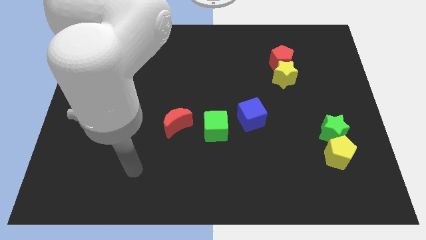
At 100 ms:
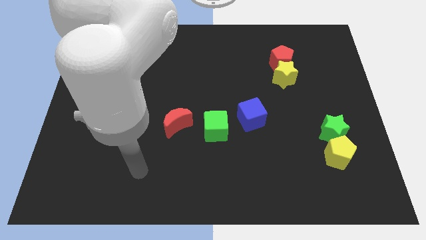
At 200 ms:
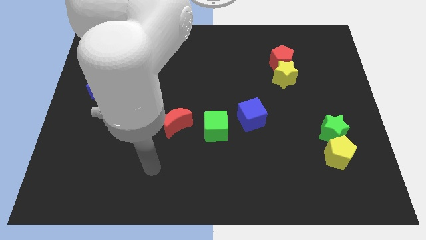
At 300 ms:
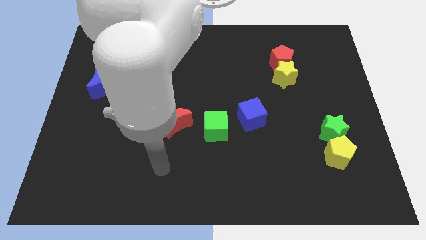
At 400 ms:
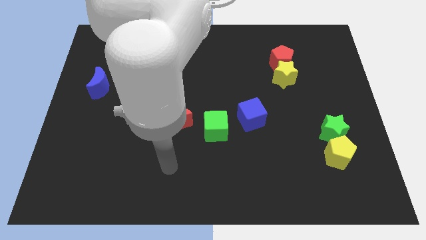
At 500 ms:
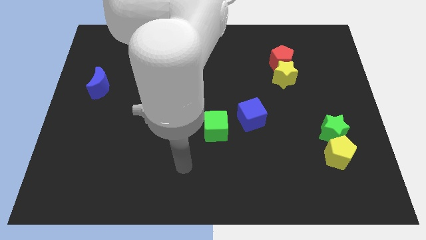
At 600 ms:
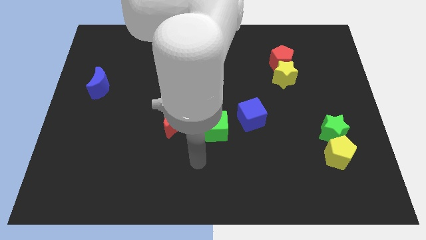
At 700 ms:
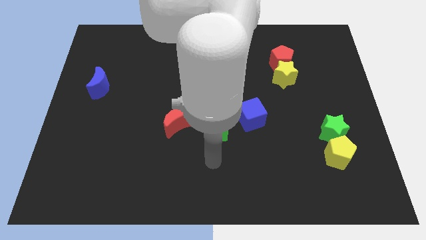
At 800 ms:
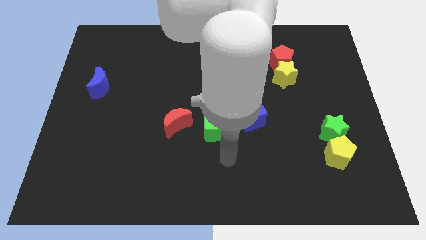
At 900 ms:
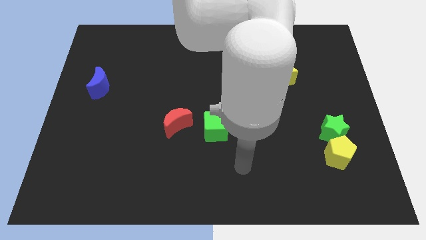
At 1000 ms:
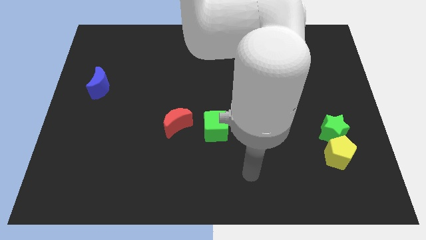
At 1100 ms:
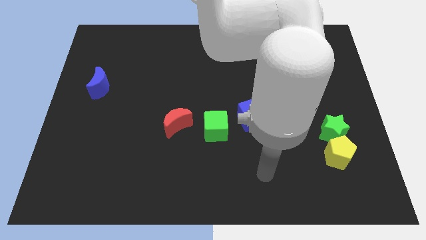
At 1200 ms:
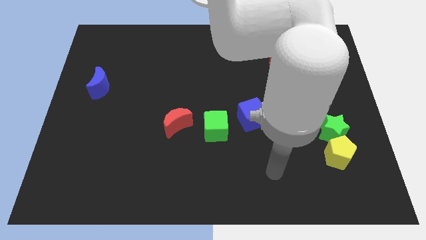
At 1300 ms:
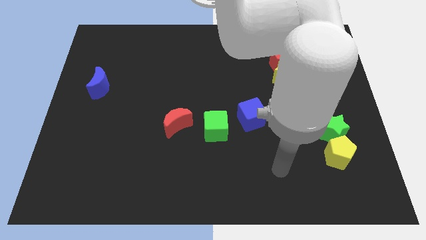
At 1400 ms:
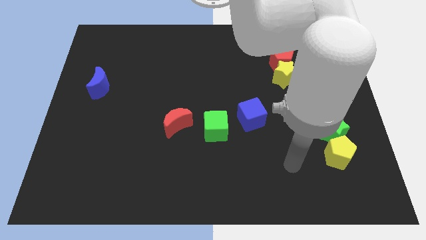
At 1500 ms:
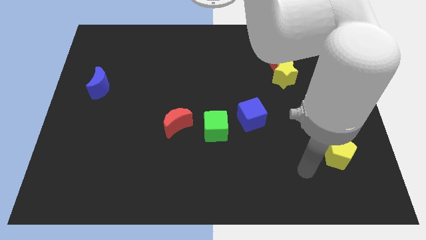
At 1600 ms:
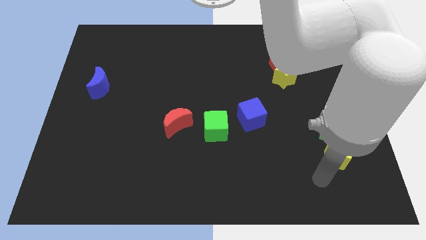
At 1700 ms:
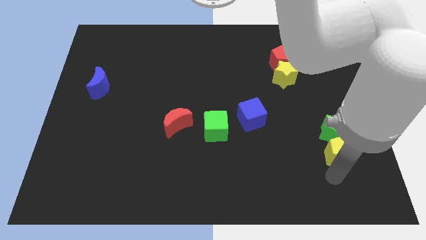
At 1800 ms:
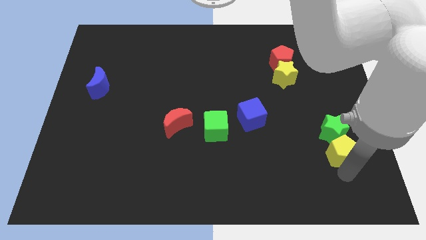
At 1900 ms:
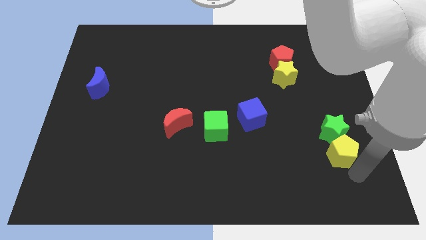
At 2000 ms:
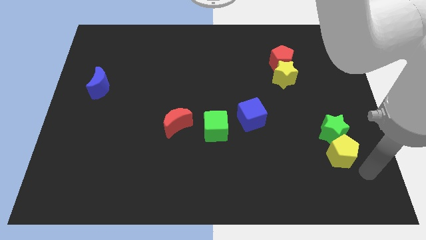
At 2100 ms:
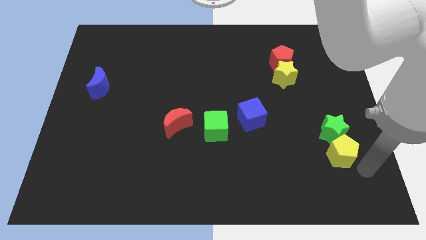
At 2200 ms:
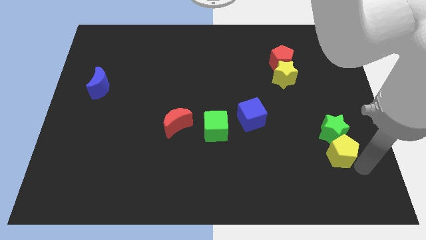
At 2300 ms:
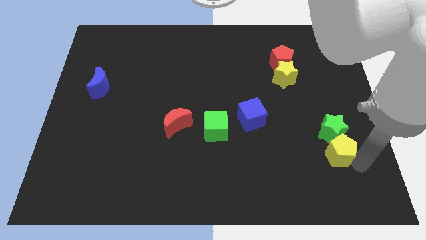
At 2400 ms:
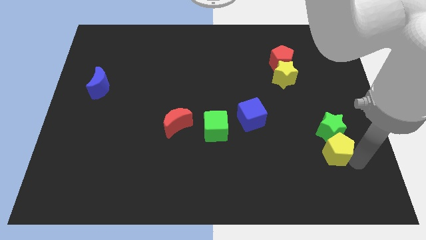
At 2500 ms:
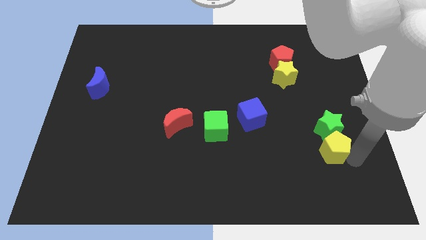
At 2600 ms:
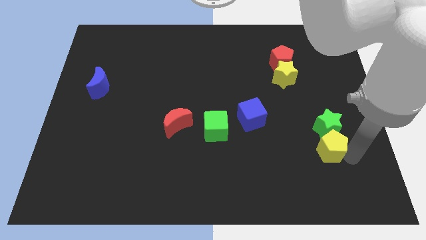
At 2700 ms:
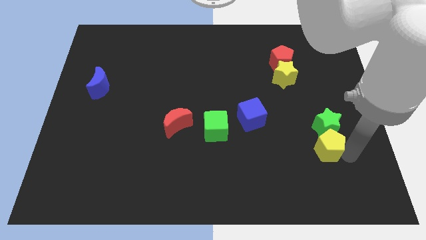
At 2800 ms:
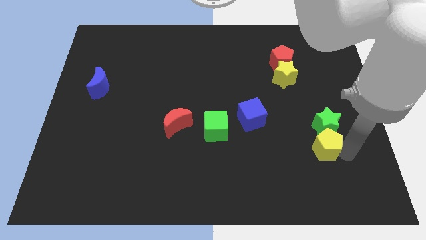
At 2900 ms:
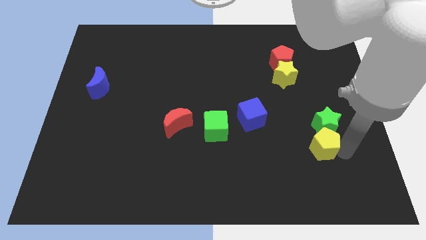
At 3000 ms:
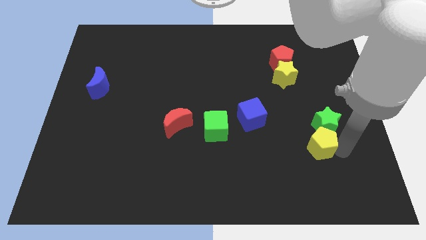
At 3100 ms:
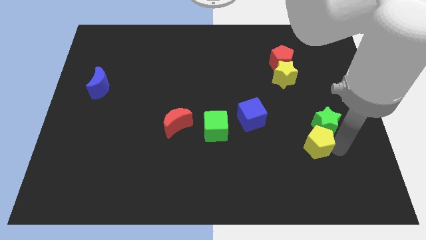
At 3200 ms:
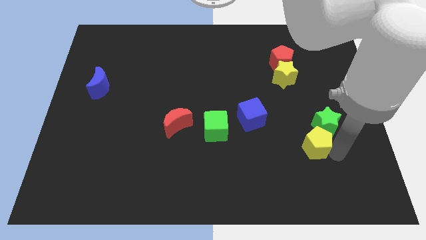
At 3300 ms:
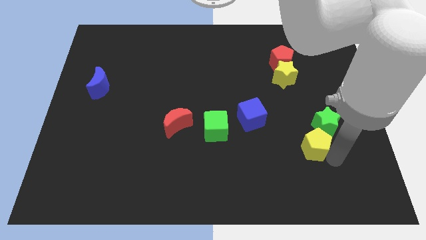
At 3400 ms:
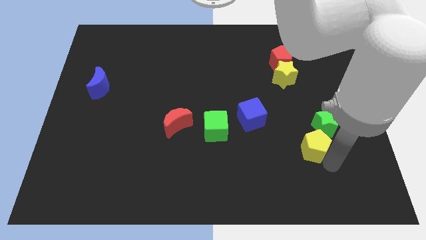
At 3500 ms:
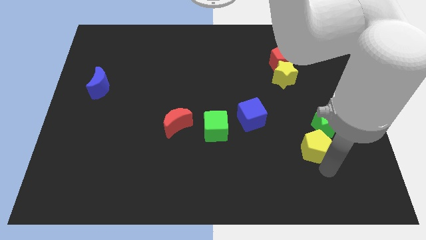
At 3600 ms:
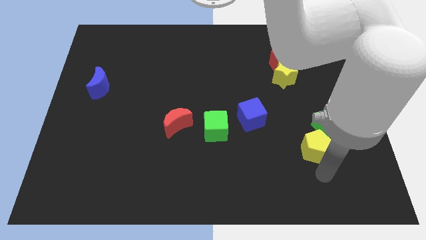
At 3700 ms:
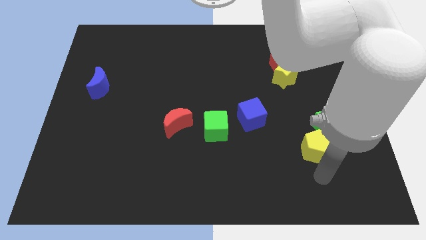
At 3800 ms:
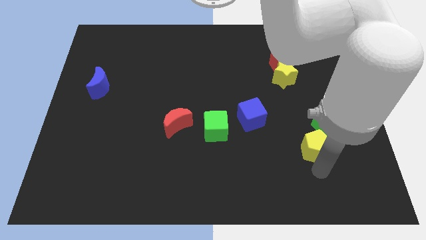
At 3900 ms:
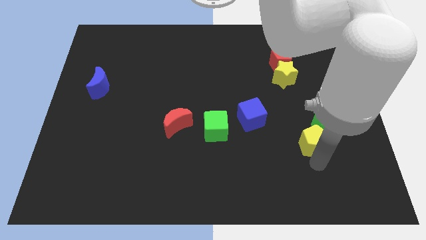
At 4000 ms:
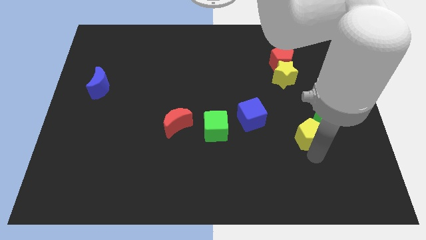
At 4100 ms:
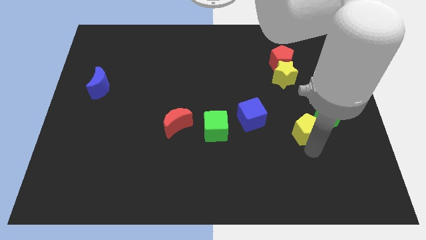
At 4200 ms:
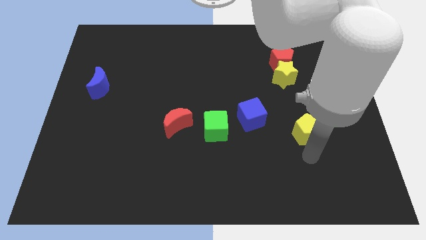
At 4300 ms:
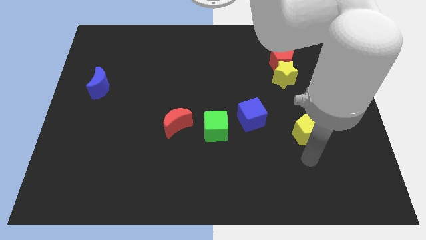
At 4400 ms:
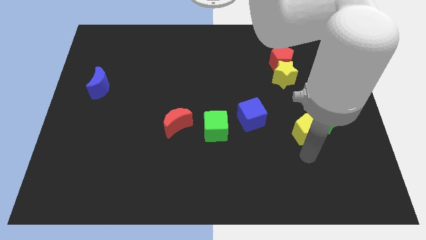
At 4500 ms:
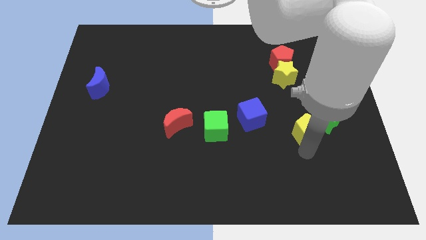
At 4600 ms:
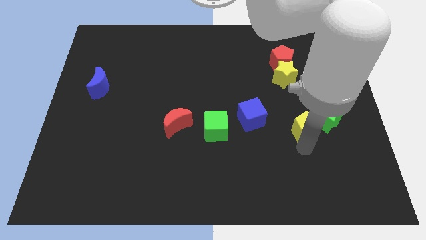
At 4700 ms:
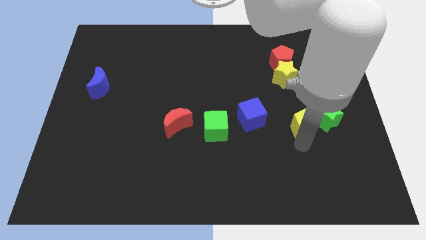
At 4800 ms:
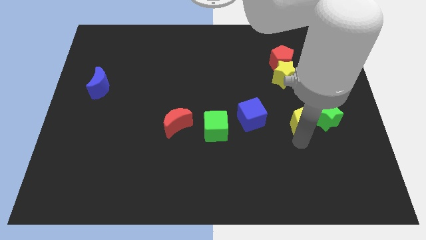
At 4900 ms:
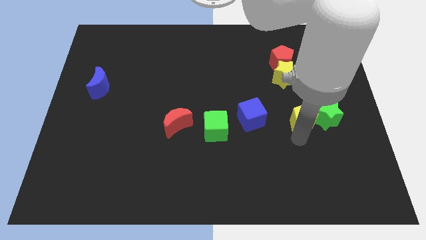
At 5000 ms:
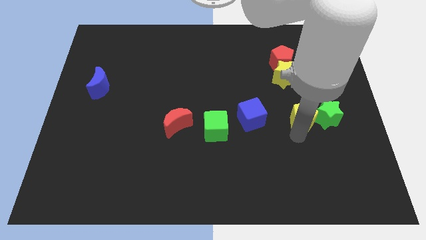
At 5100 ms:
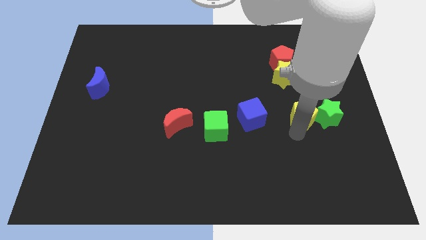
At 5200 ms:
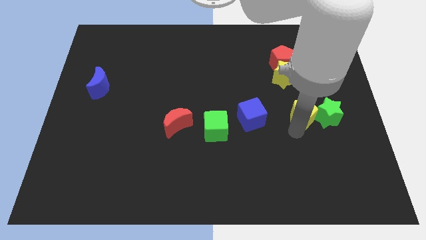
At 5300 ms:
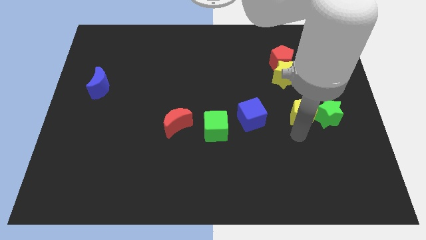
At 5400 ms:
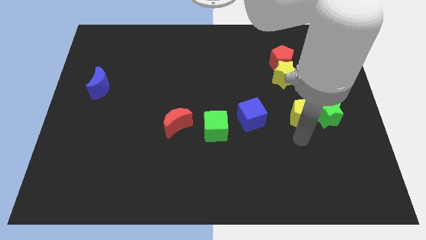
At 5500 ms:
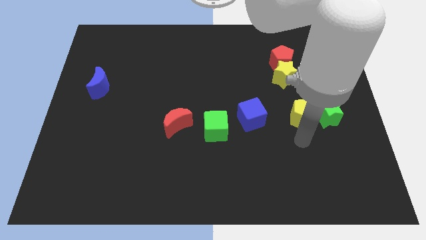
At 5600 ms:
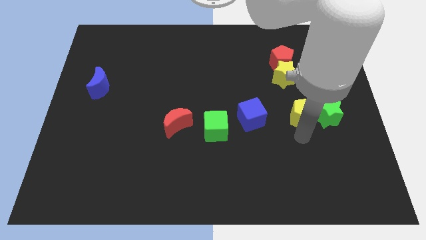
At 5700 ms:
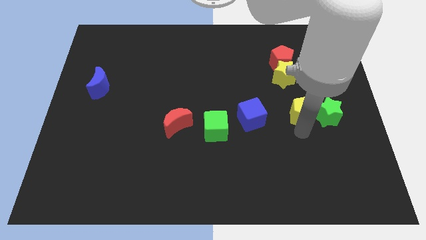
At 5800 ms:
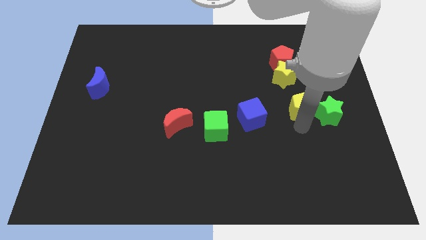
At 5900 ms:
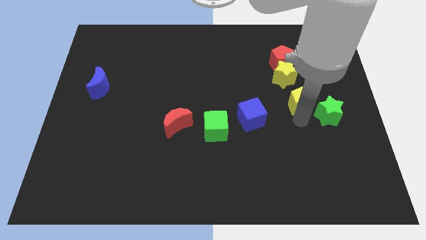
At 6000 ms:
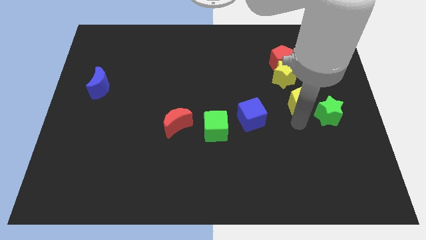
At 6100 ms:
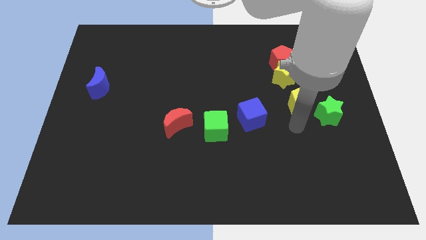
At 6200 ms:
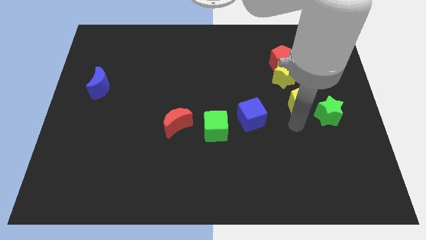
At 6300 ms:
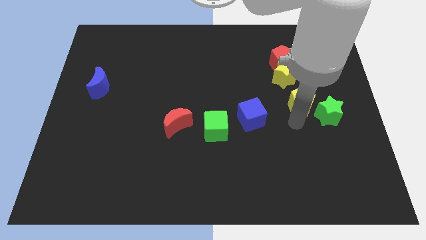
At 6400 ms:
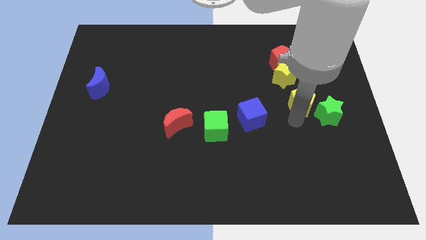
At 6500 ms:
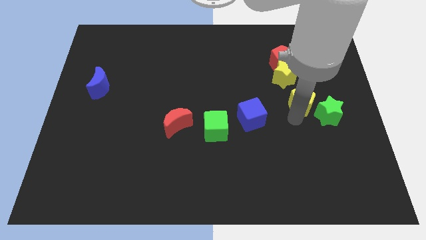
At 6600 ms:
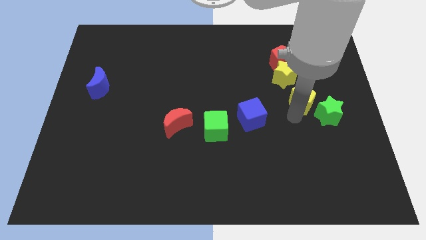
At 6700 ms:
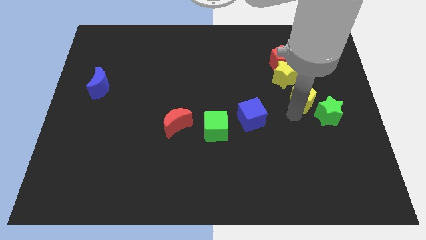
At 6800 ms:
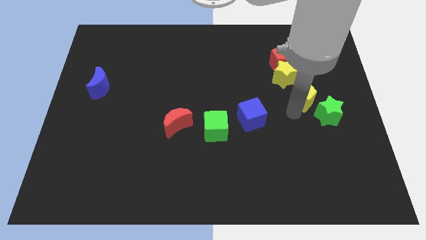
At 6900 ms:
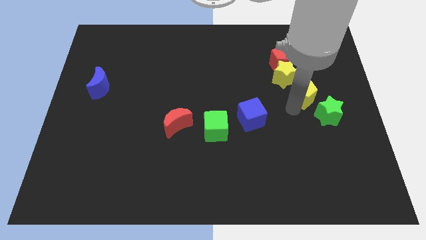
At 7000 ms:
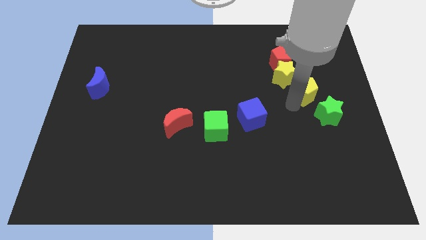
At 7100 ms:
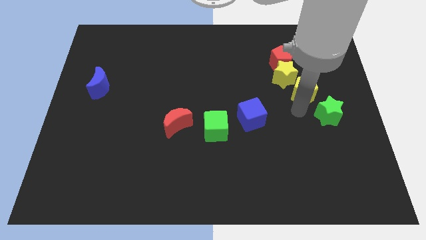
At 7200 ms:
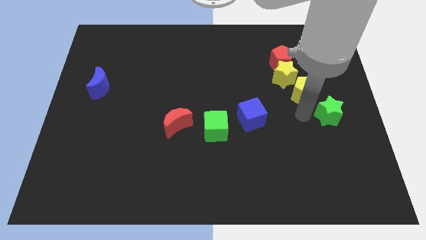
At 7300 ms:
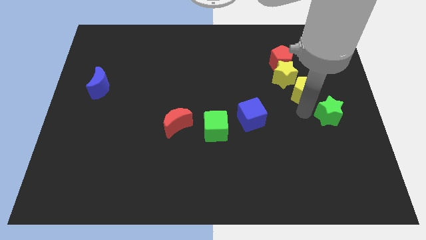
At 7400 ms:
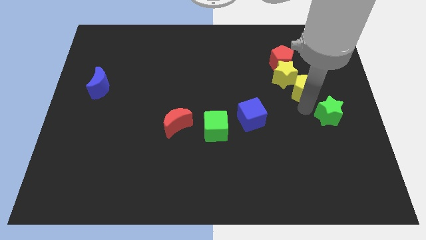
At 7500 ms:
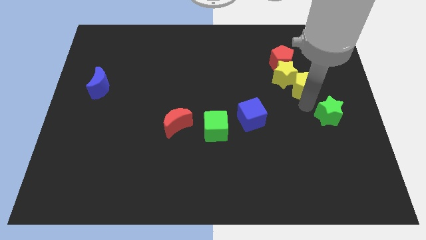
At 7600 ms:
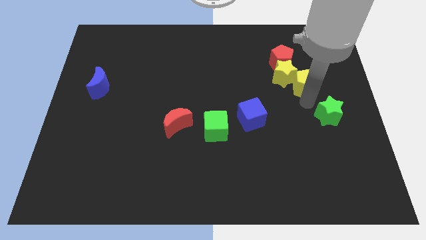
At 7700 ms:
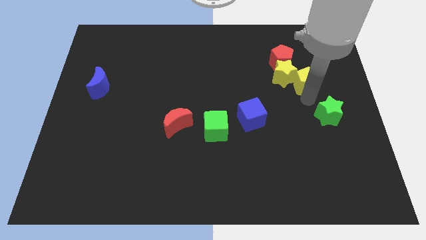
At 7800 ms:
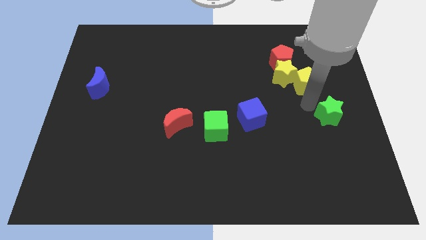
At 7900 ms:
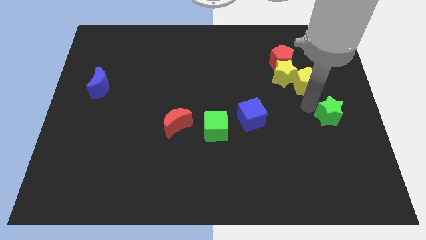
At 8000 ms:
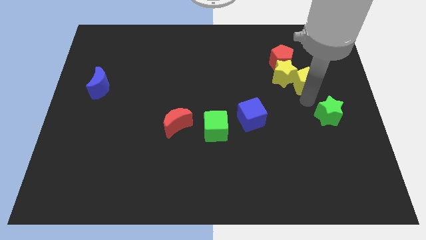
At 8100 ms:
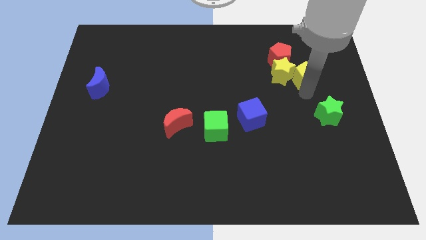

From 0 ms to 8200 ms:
slide the yellow pentagon to the top right side of the yellow star
